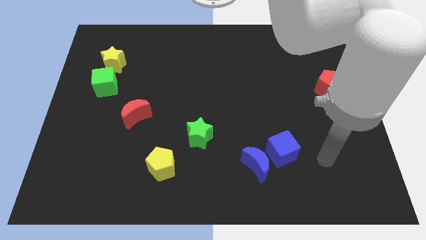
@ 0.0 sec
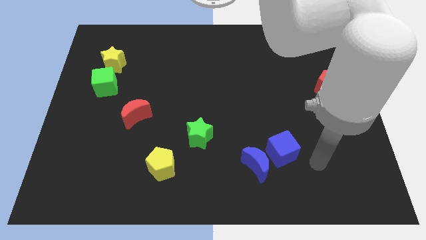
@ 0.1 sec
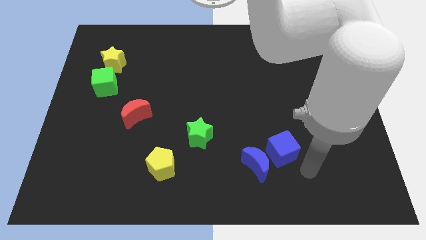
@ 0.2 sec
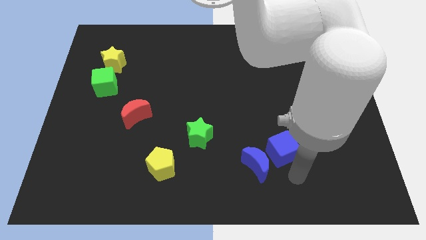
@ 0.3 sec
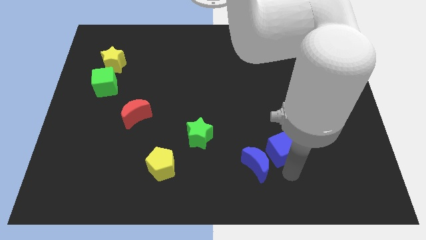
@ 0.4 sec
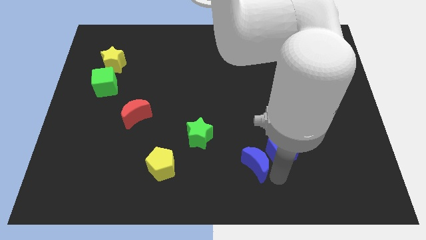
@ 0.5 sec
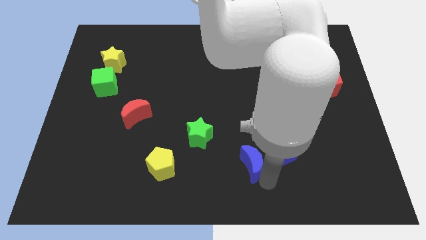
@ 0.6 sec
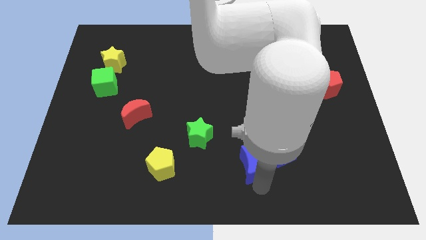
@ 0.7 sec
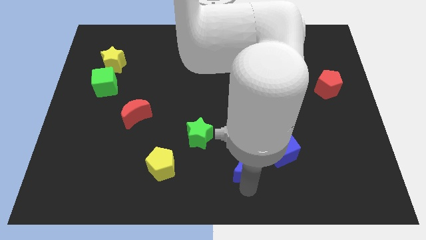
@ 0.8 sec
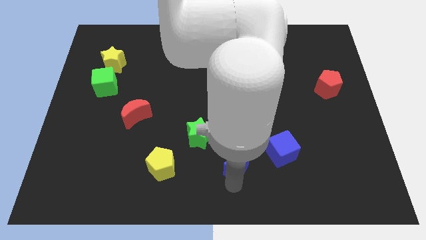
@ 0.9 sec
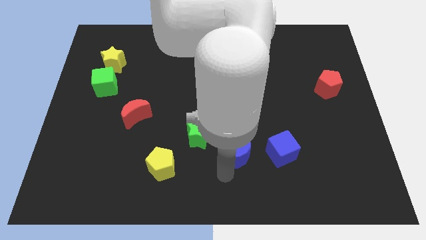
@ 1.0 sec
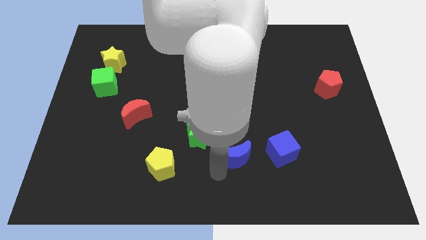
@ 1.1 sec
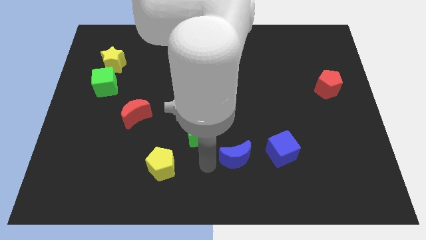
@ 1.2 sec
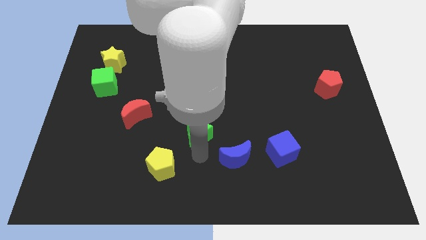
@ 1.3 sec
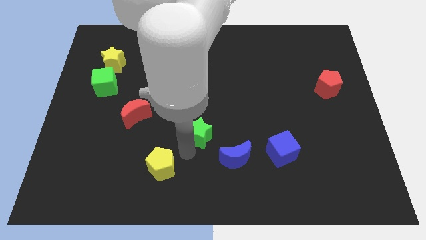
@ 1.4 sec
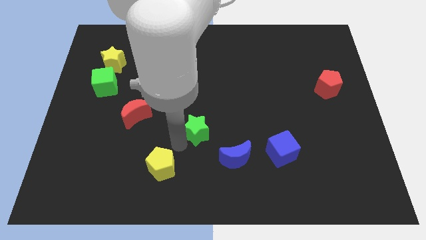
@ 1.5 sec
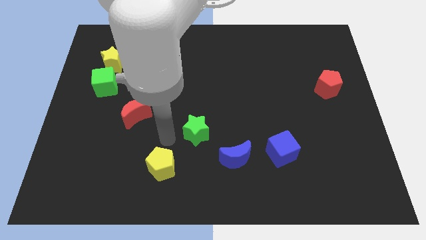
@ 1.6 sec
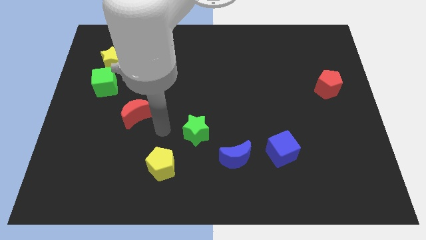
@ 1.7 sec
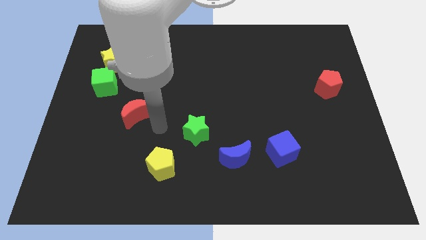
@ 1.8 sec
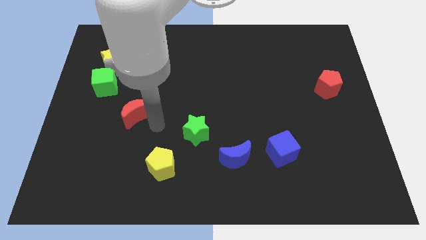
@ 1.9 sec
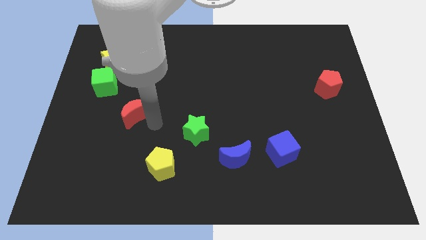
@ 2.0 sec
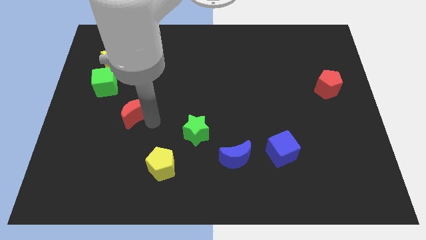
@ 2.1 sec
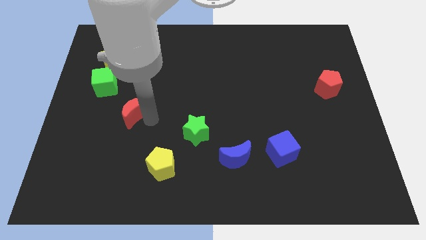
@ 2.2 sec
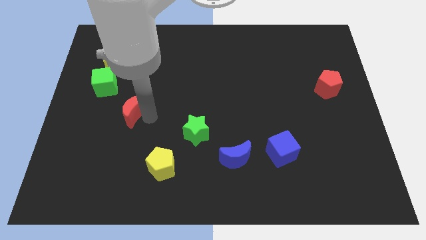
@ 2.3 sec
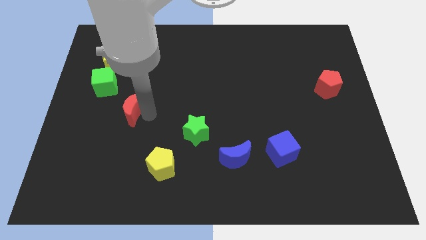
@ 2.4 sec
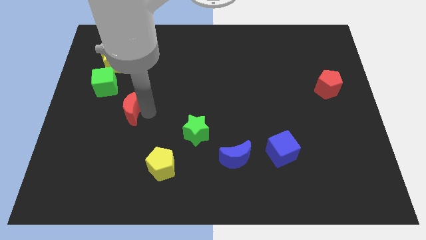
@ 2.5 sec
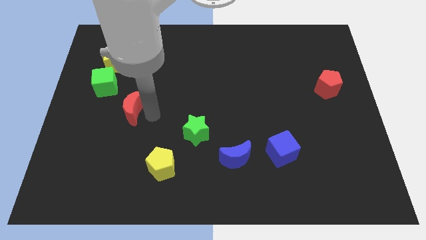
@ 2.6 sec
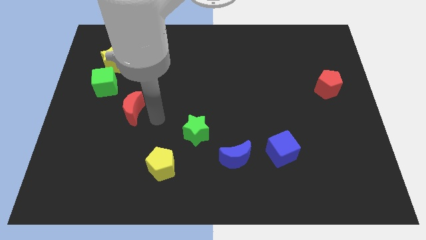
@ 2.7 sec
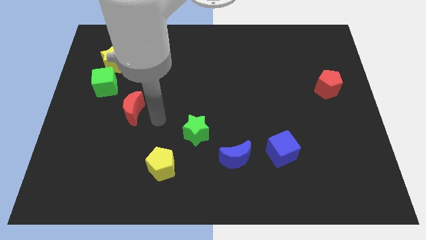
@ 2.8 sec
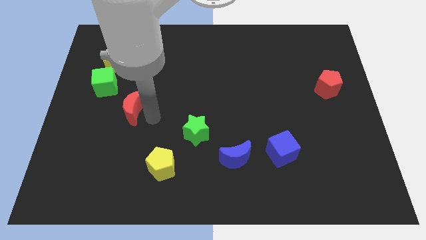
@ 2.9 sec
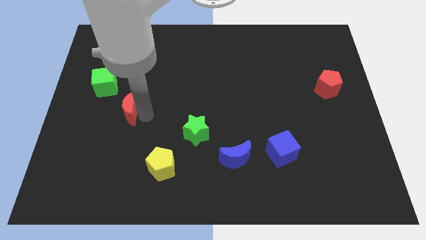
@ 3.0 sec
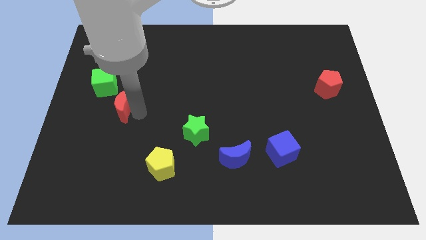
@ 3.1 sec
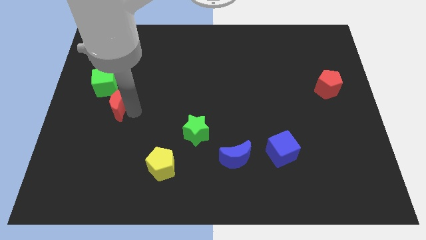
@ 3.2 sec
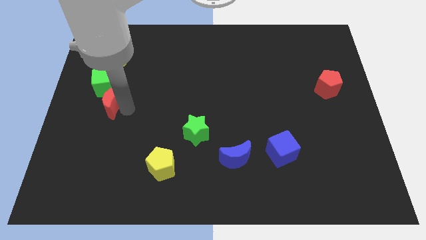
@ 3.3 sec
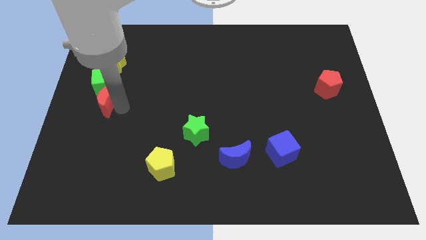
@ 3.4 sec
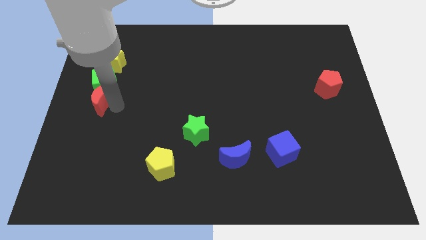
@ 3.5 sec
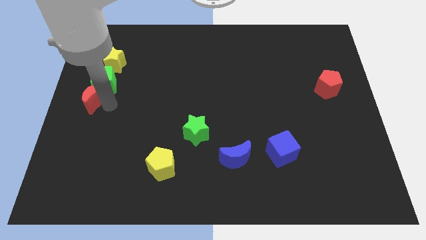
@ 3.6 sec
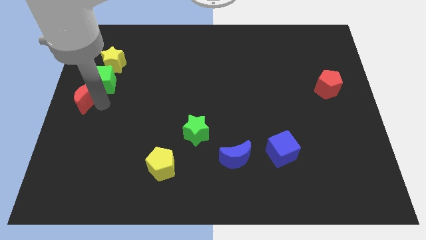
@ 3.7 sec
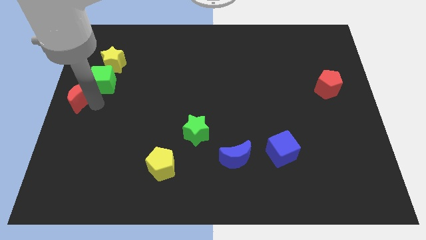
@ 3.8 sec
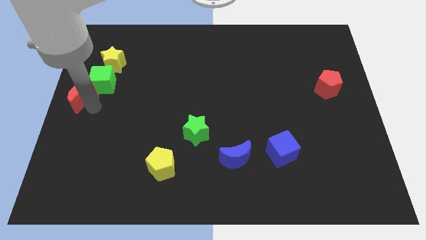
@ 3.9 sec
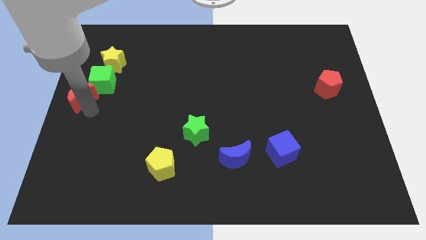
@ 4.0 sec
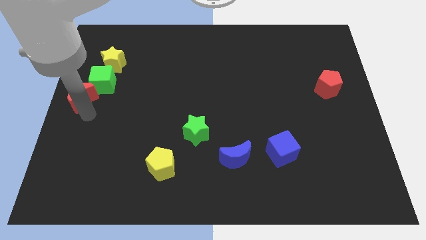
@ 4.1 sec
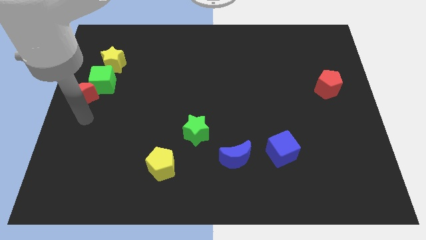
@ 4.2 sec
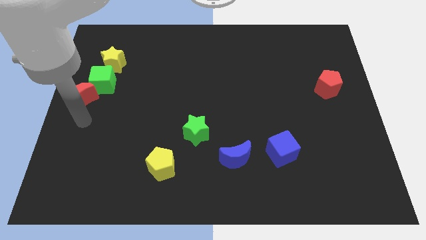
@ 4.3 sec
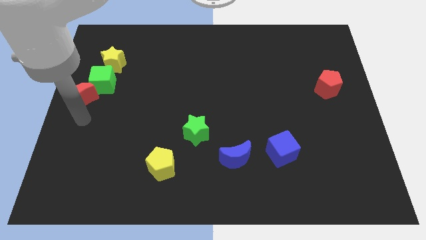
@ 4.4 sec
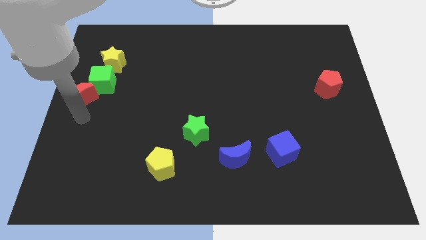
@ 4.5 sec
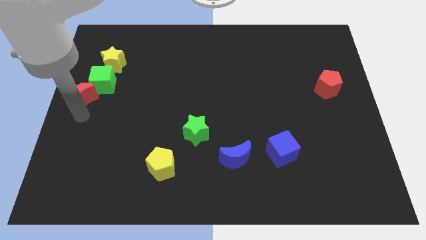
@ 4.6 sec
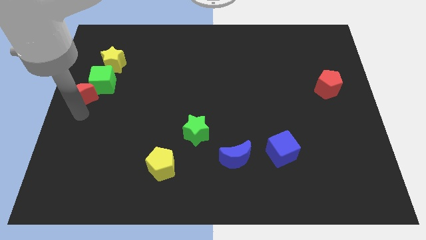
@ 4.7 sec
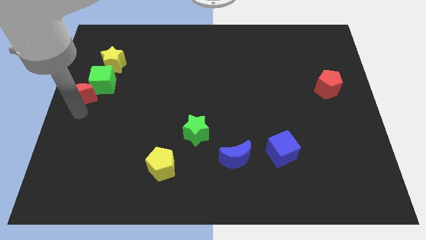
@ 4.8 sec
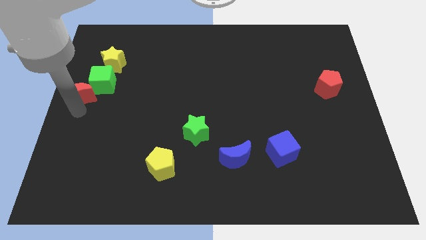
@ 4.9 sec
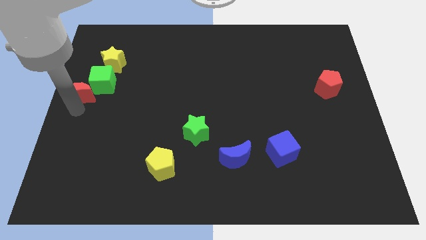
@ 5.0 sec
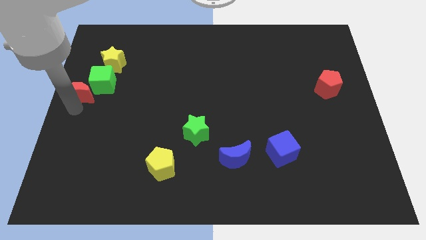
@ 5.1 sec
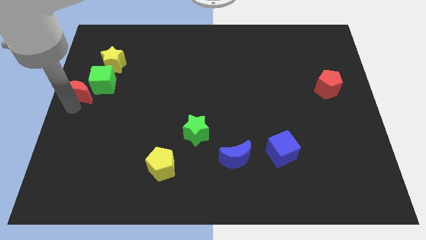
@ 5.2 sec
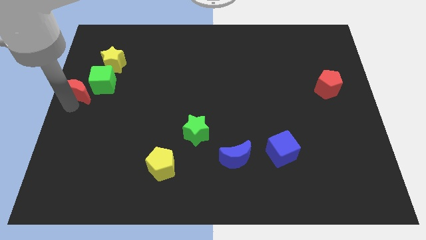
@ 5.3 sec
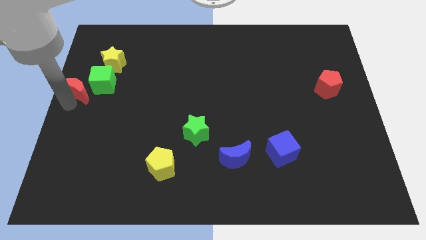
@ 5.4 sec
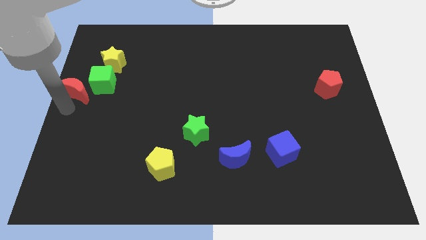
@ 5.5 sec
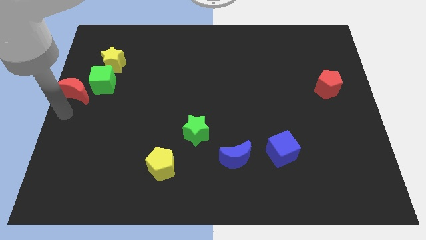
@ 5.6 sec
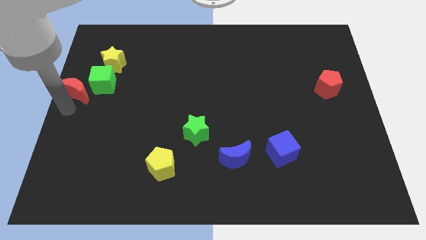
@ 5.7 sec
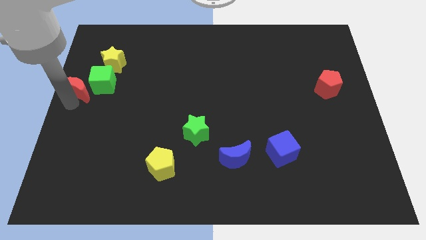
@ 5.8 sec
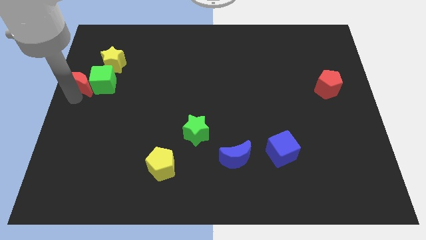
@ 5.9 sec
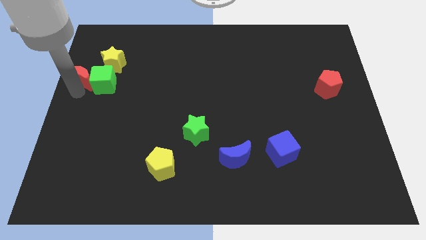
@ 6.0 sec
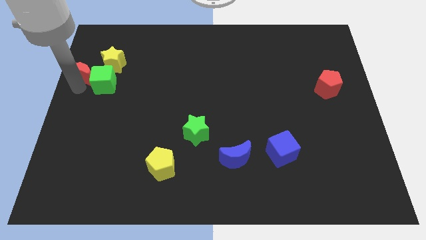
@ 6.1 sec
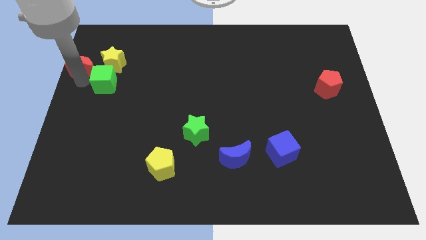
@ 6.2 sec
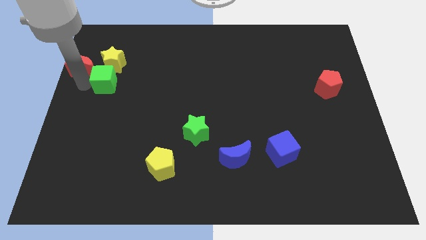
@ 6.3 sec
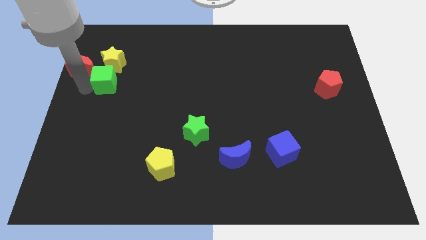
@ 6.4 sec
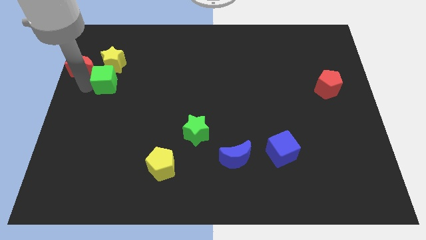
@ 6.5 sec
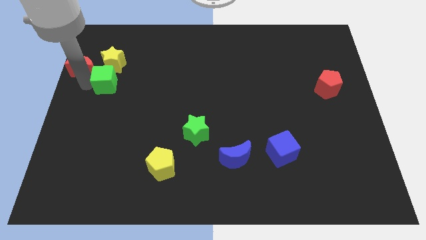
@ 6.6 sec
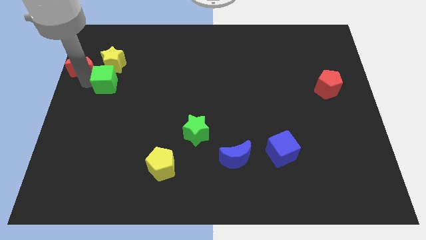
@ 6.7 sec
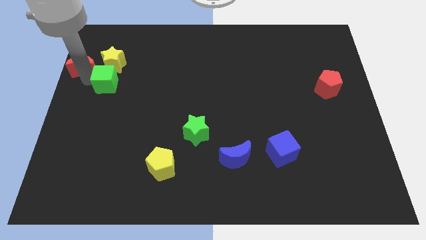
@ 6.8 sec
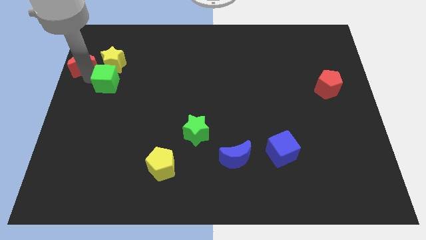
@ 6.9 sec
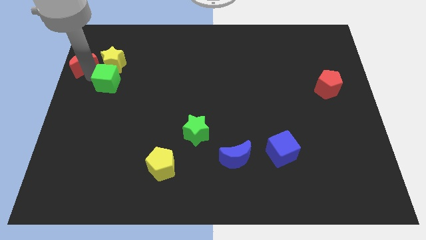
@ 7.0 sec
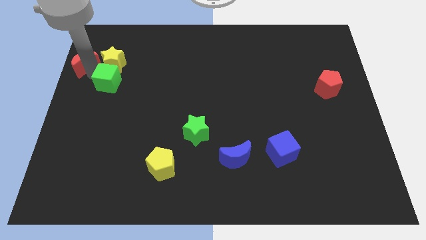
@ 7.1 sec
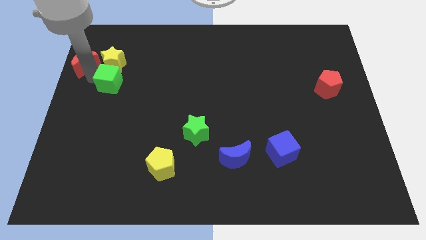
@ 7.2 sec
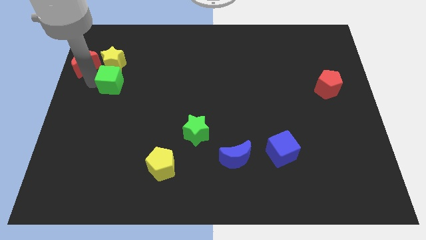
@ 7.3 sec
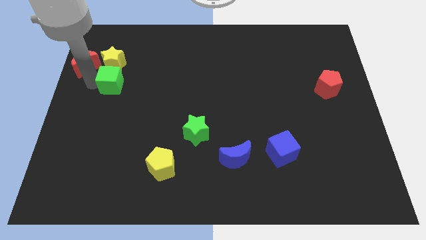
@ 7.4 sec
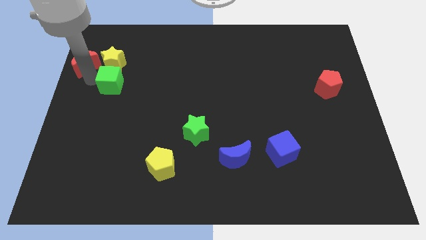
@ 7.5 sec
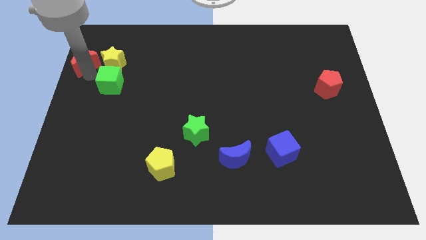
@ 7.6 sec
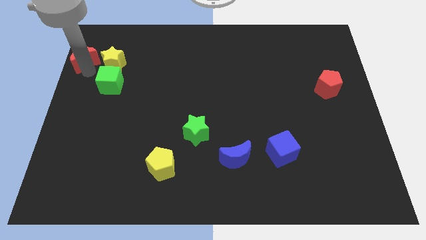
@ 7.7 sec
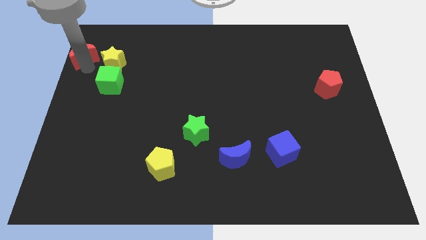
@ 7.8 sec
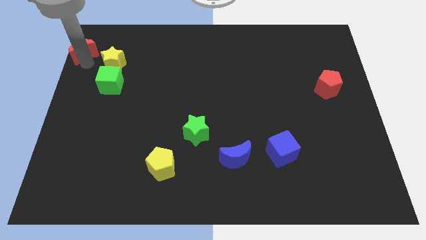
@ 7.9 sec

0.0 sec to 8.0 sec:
push the red moon to the top left
